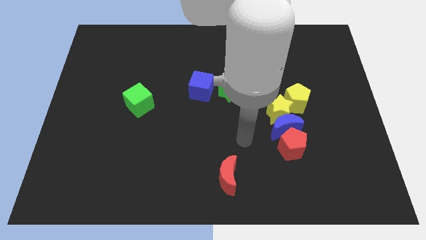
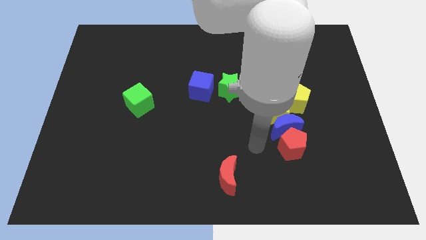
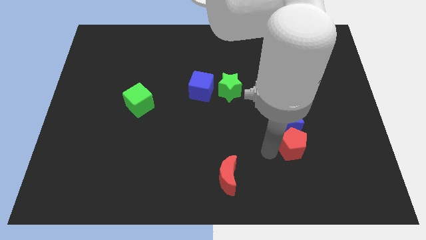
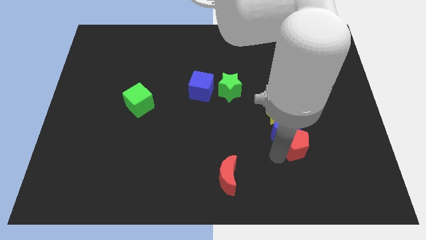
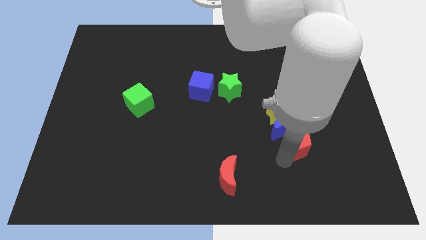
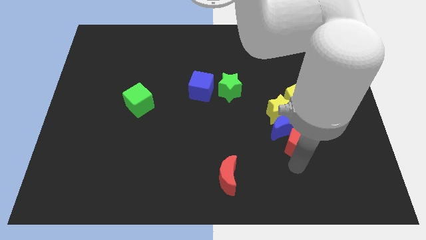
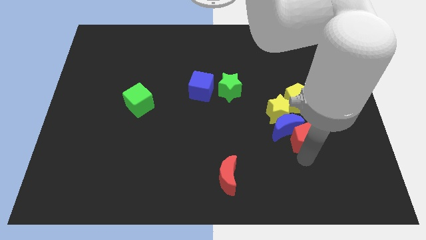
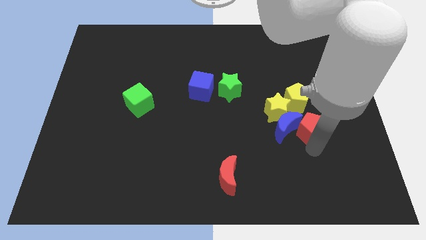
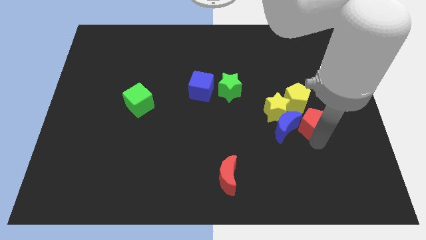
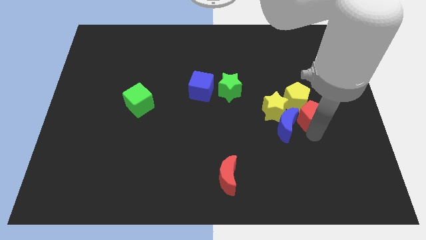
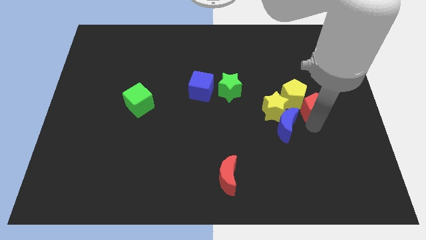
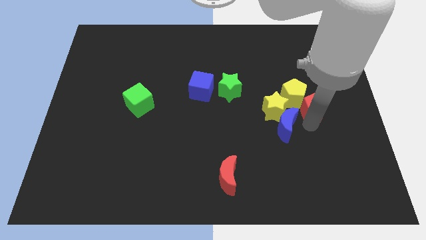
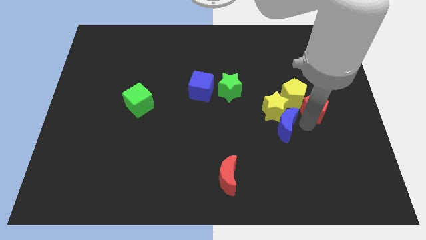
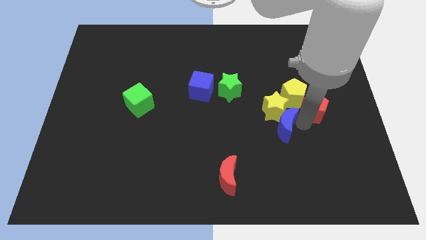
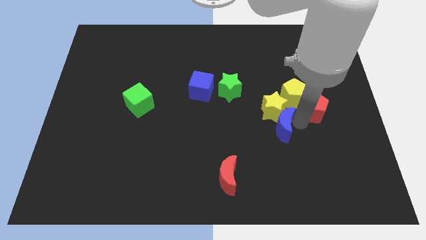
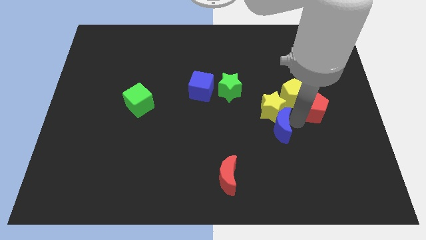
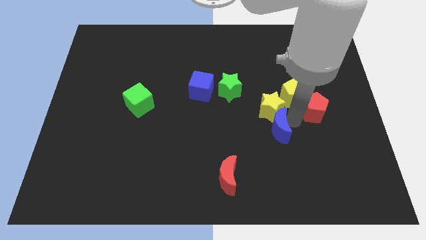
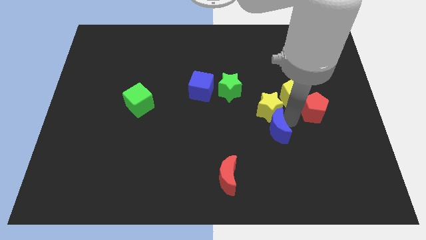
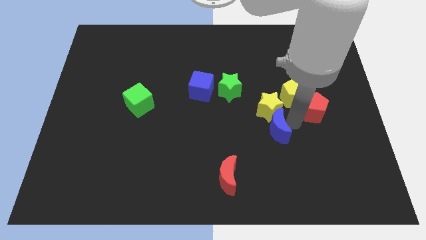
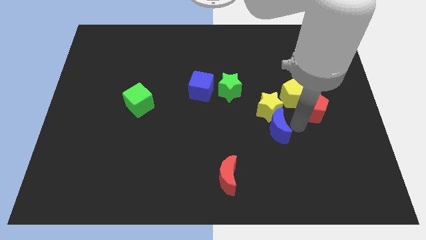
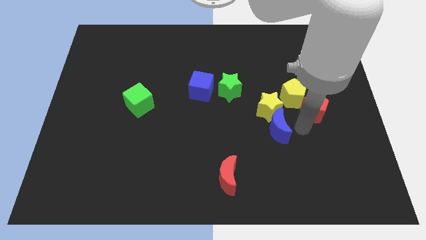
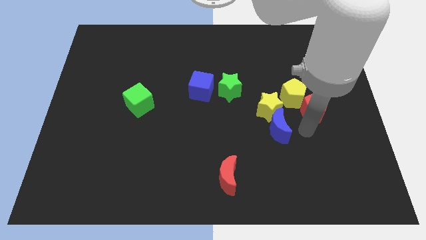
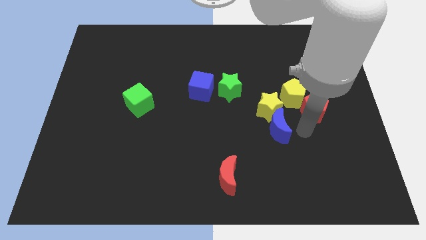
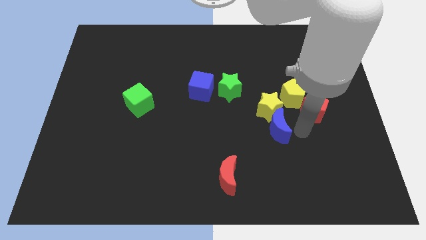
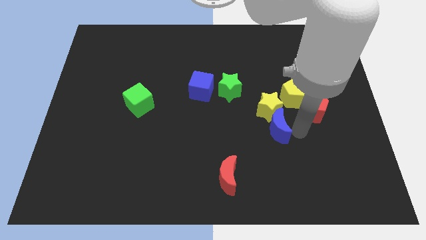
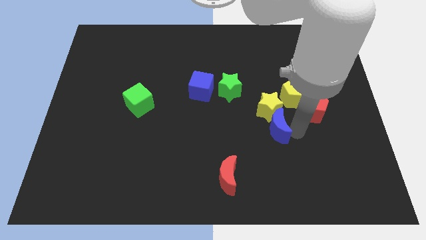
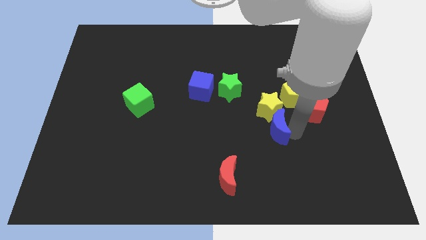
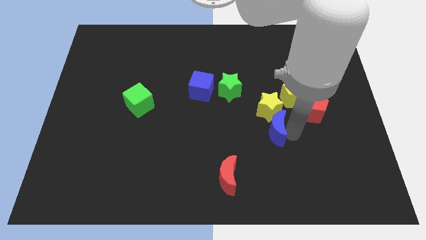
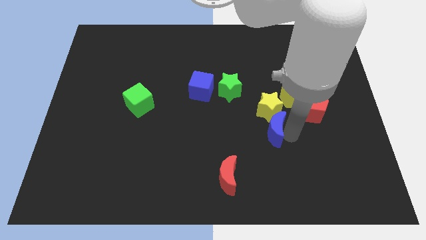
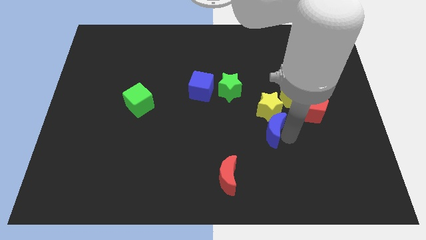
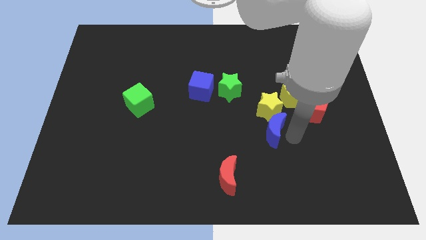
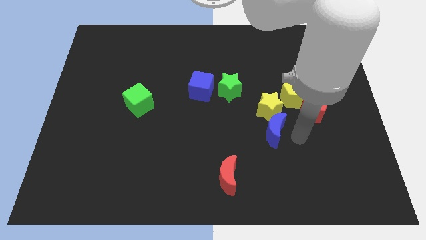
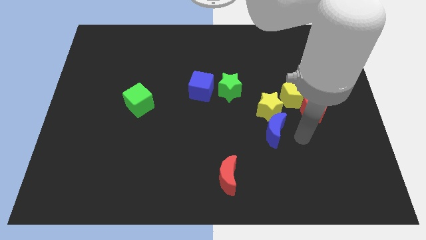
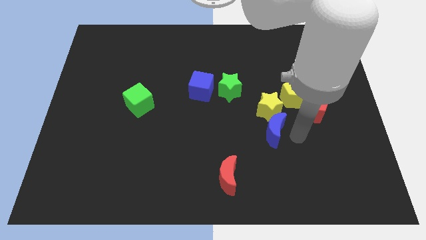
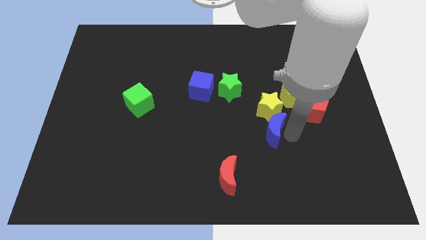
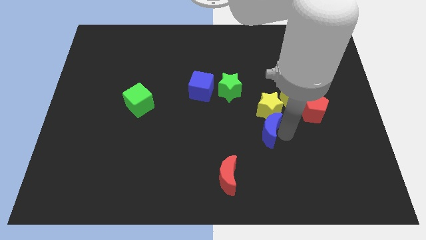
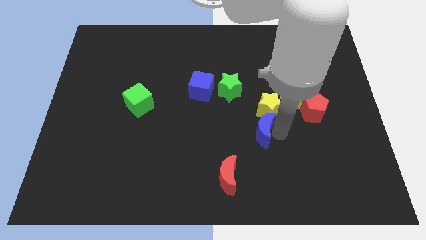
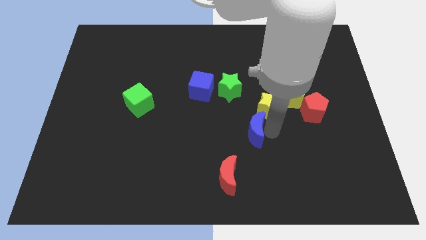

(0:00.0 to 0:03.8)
push the blue moon left slightly

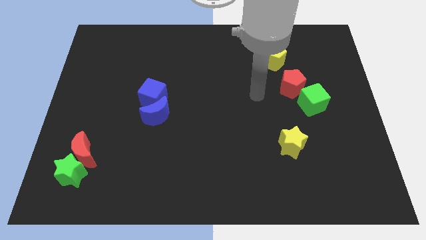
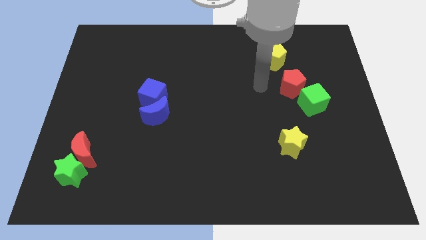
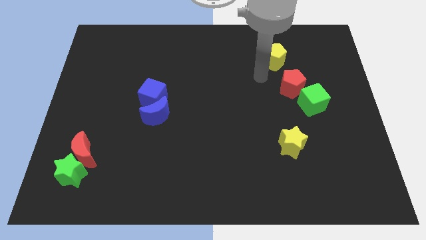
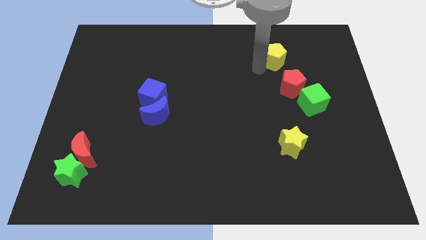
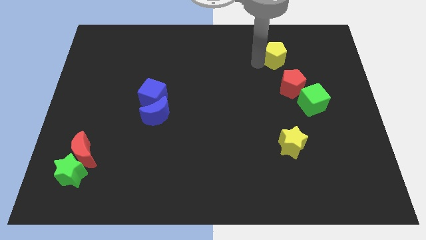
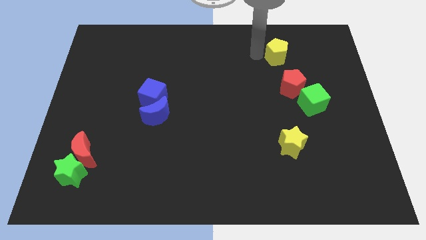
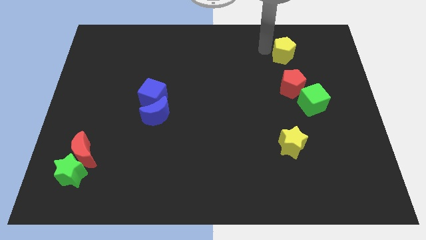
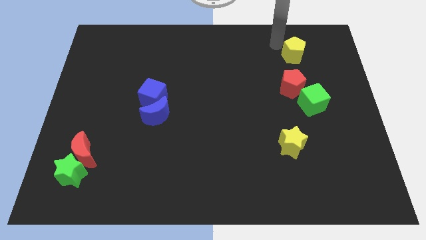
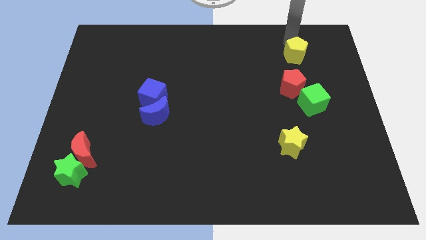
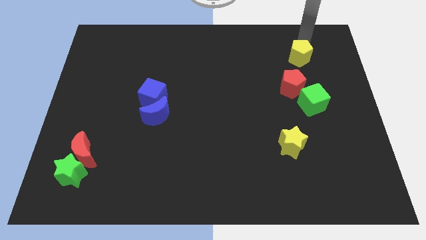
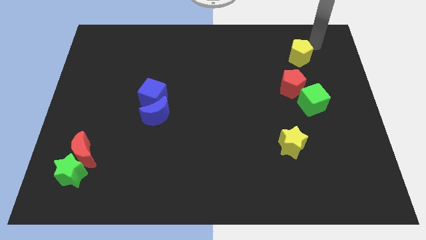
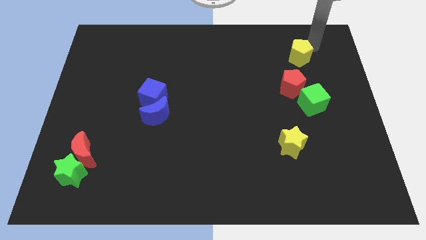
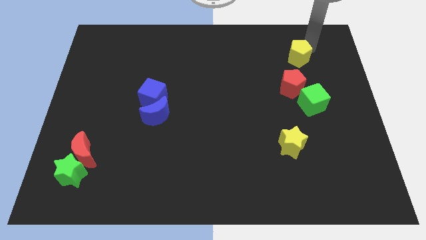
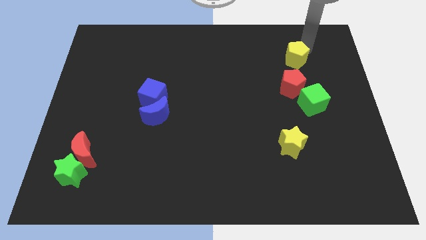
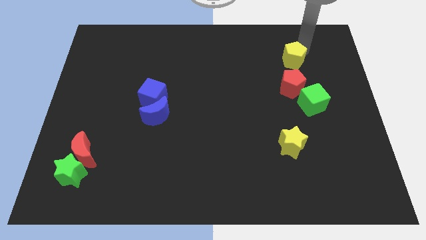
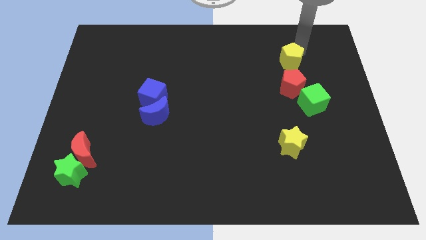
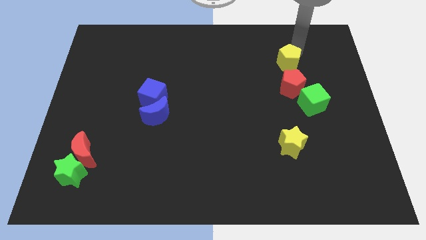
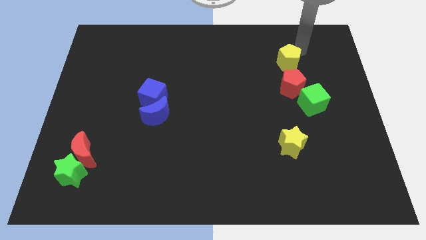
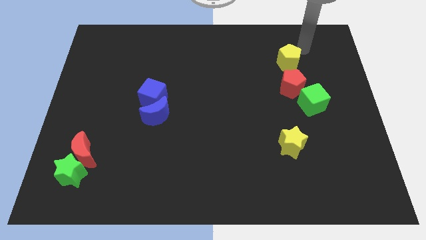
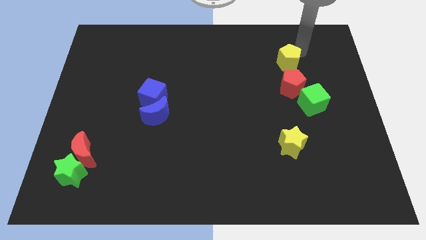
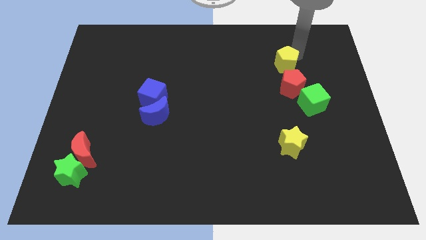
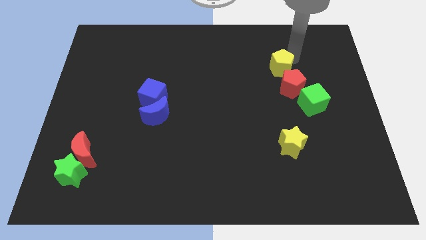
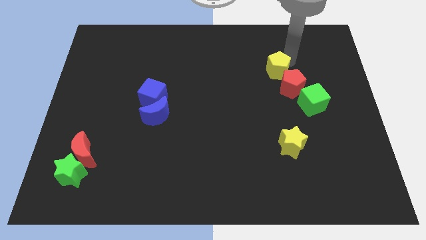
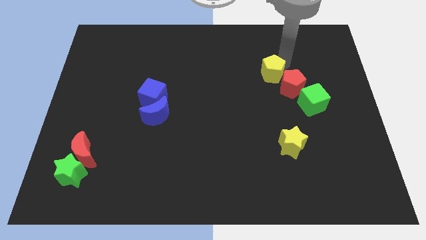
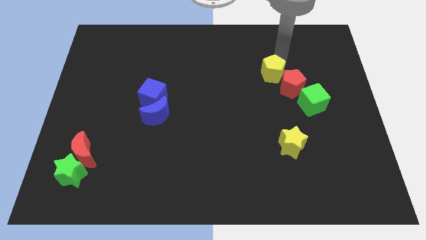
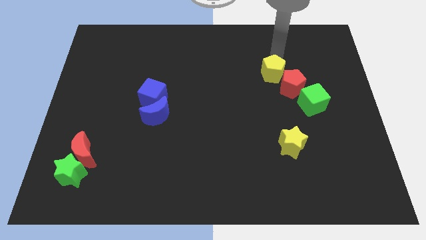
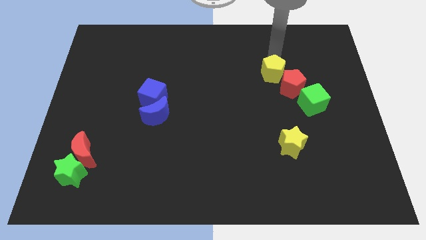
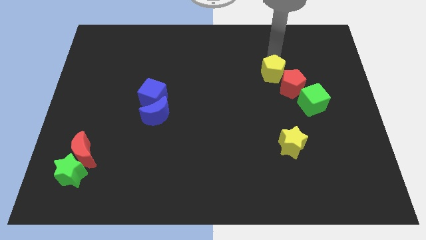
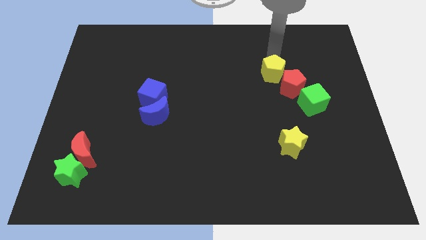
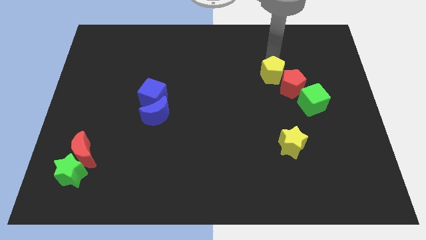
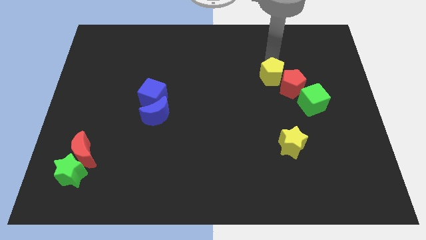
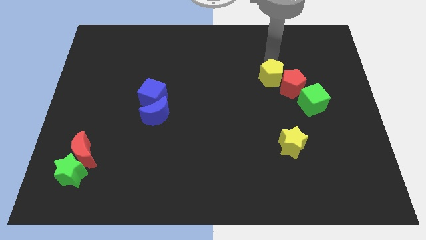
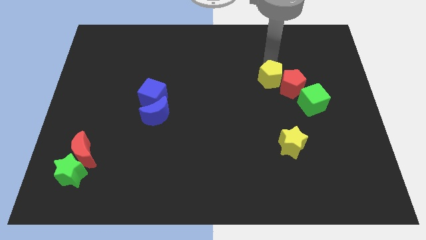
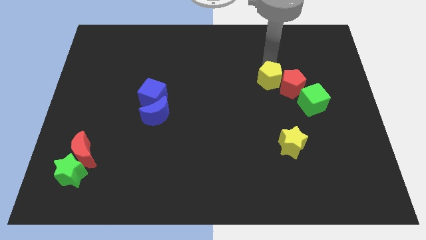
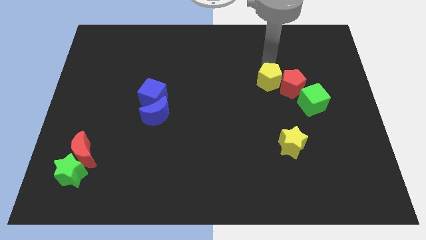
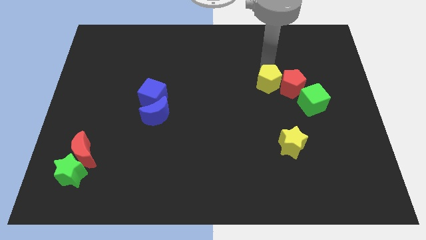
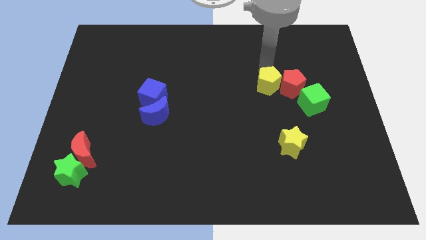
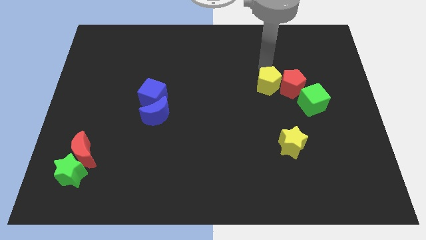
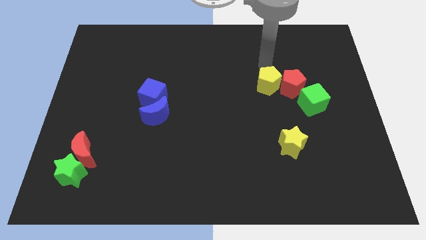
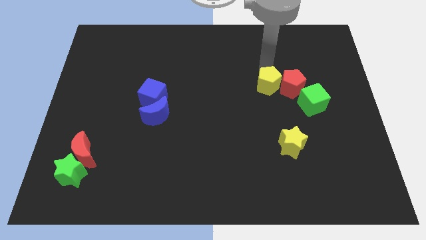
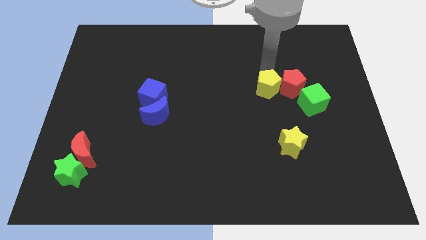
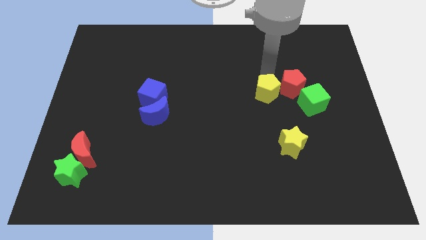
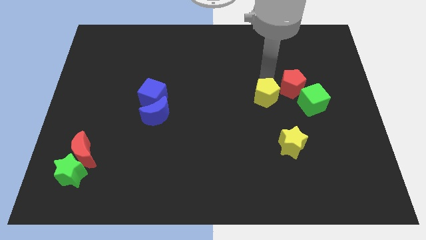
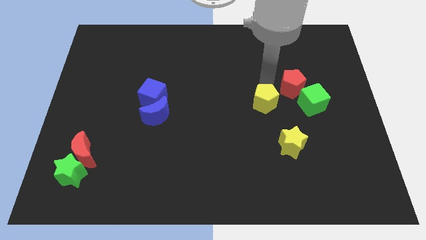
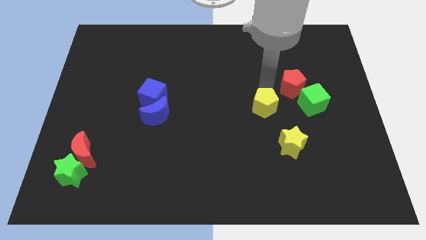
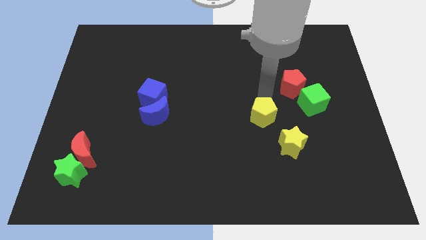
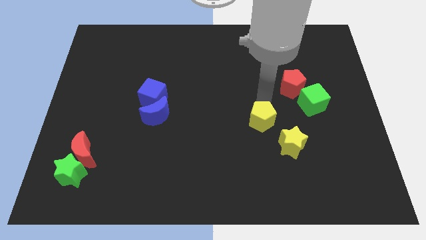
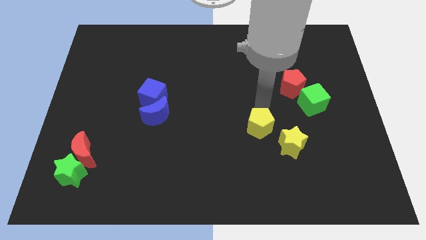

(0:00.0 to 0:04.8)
push the yellow pentagon downwards
